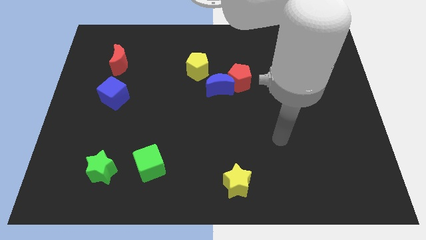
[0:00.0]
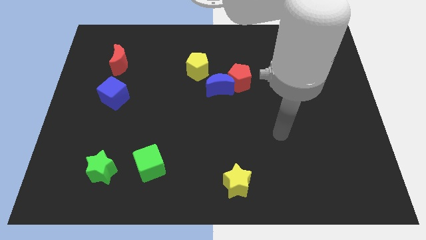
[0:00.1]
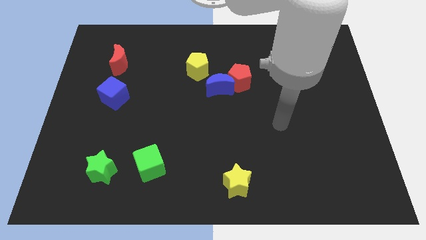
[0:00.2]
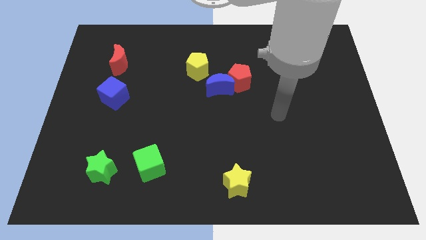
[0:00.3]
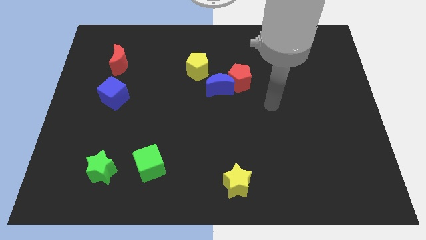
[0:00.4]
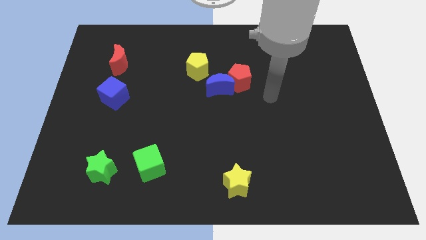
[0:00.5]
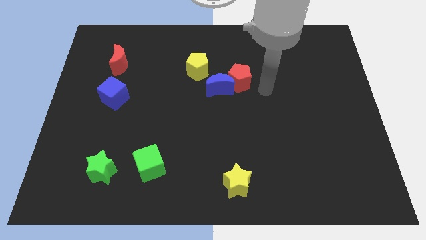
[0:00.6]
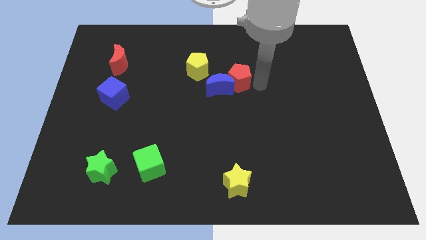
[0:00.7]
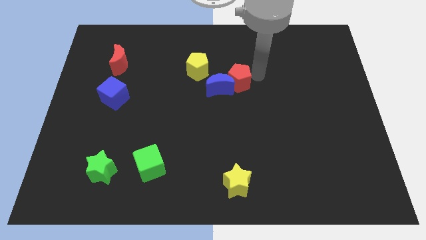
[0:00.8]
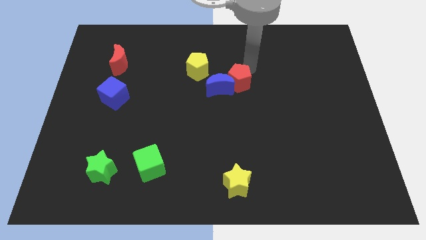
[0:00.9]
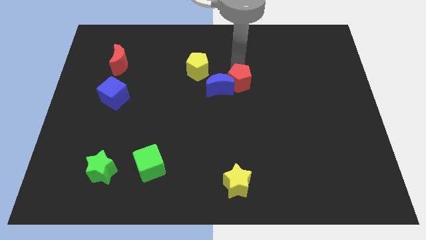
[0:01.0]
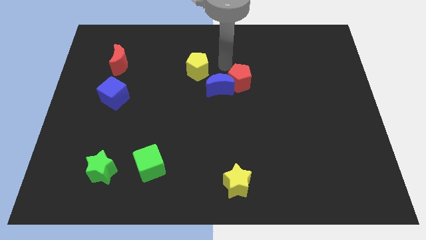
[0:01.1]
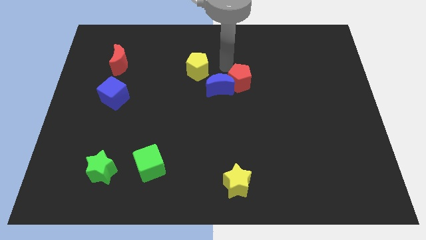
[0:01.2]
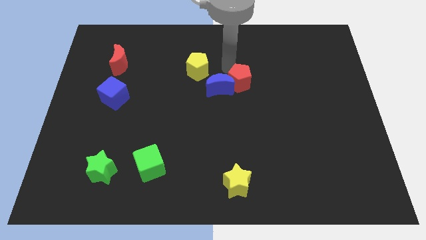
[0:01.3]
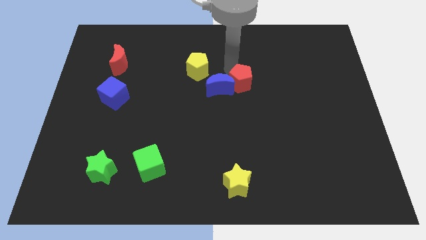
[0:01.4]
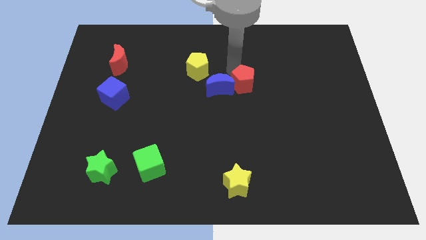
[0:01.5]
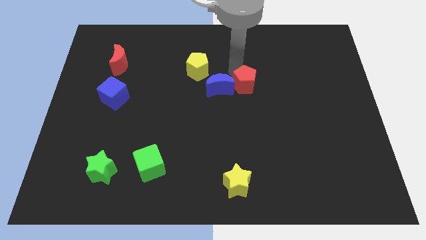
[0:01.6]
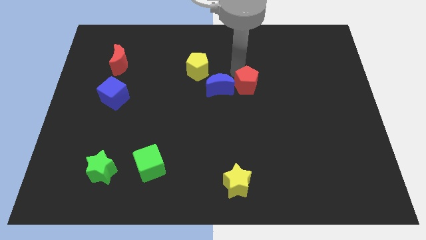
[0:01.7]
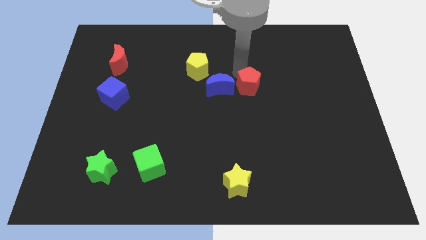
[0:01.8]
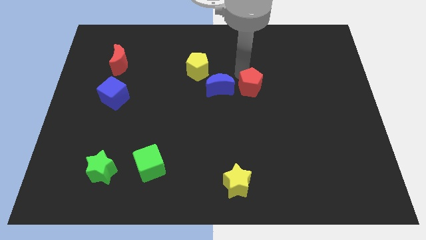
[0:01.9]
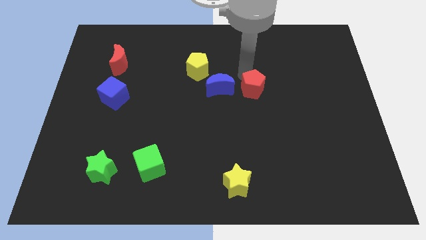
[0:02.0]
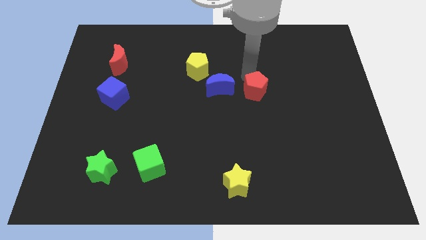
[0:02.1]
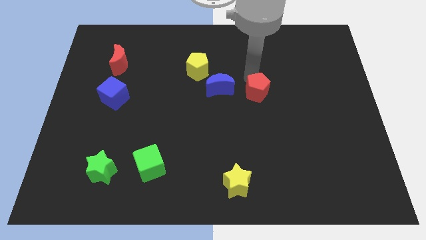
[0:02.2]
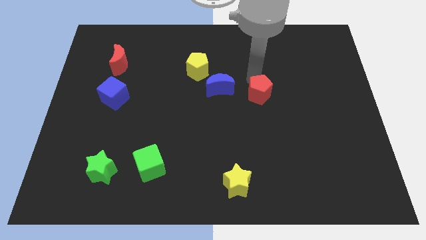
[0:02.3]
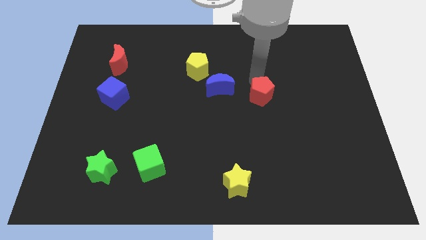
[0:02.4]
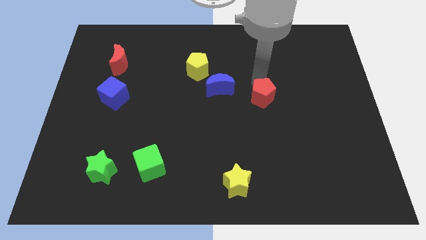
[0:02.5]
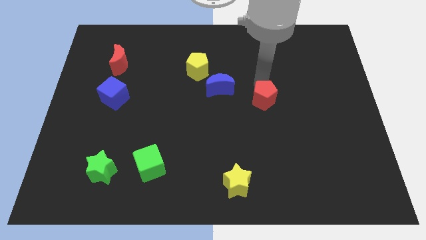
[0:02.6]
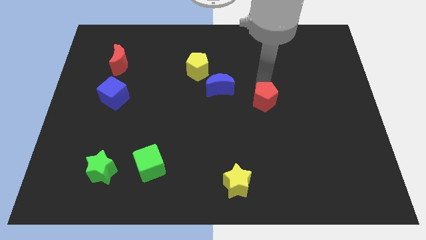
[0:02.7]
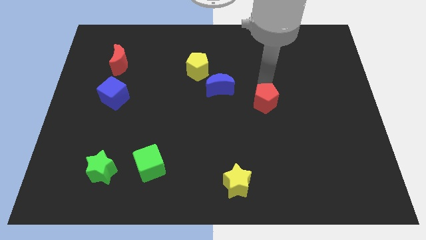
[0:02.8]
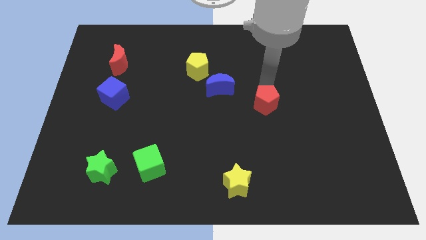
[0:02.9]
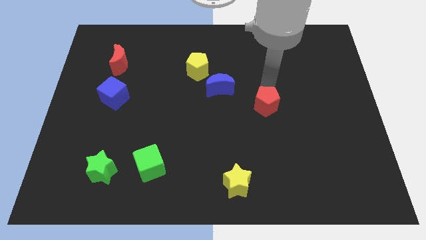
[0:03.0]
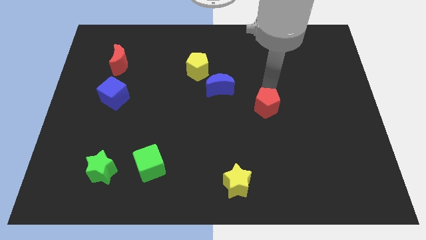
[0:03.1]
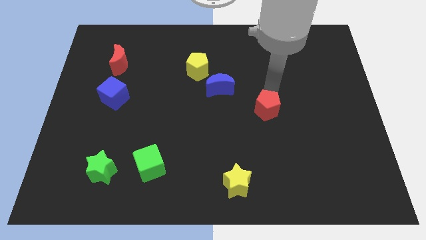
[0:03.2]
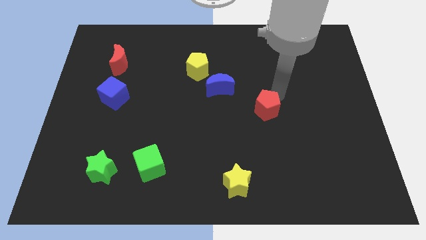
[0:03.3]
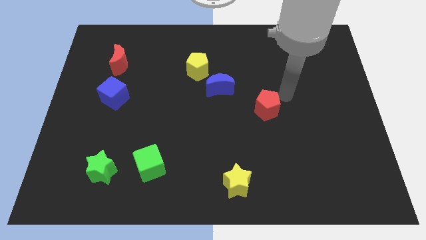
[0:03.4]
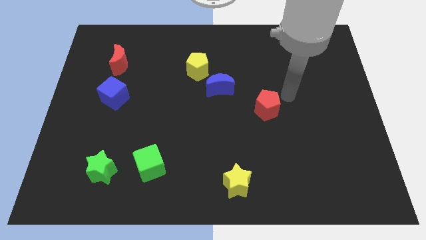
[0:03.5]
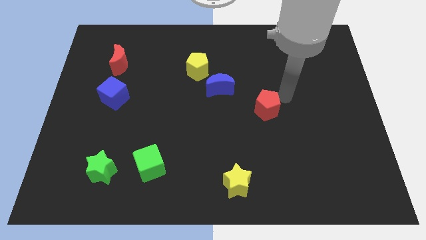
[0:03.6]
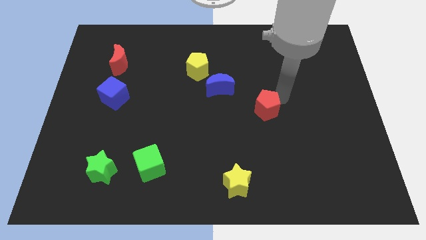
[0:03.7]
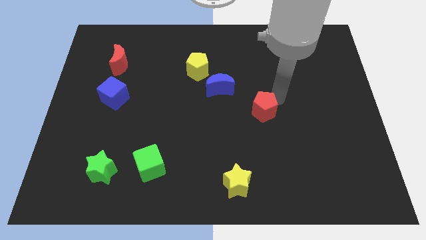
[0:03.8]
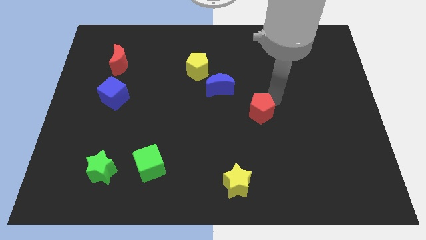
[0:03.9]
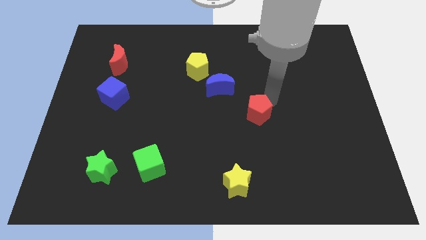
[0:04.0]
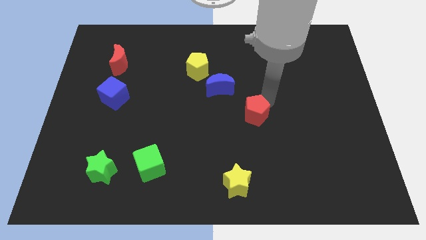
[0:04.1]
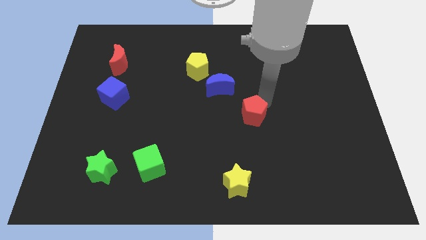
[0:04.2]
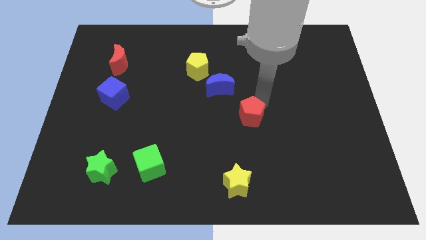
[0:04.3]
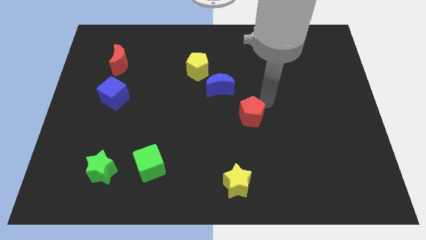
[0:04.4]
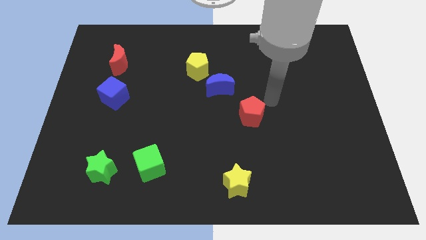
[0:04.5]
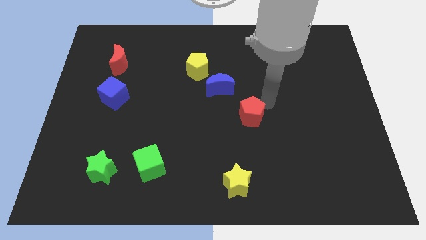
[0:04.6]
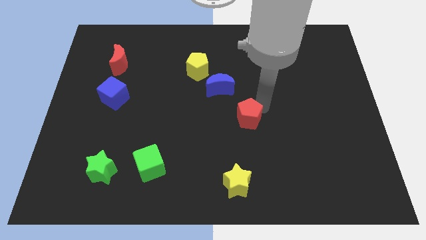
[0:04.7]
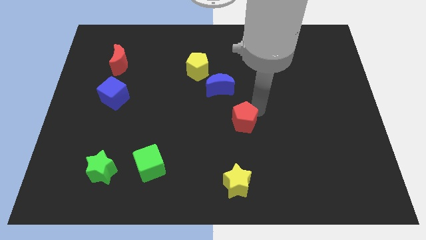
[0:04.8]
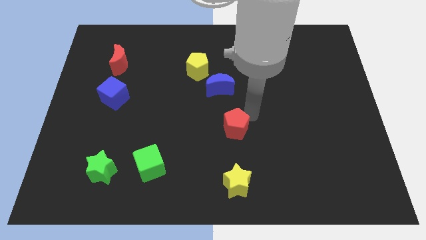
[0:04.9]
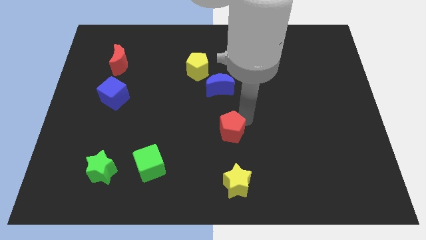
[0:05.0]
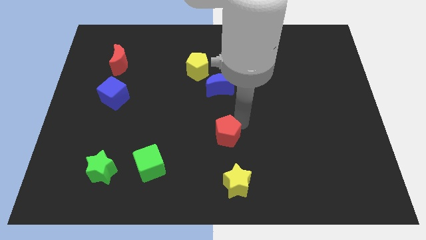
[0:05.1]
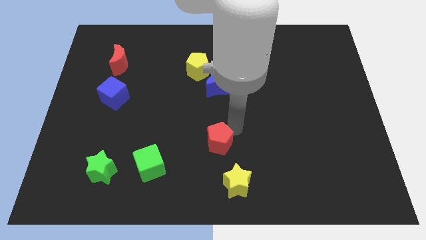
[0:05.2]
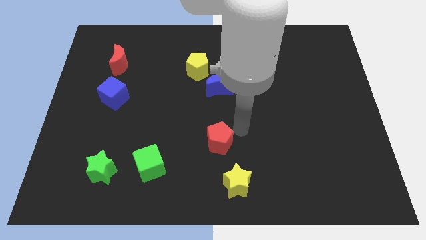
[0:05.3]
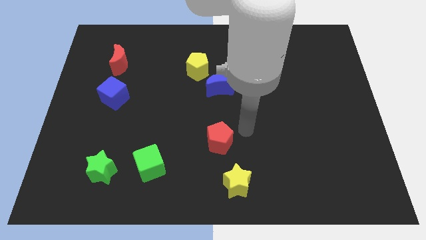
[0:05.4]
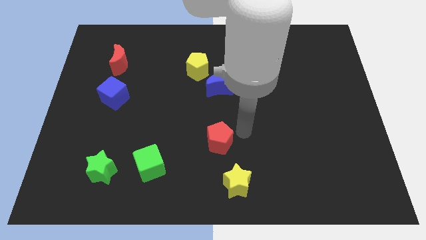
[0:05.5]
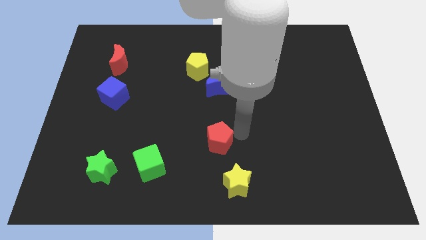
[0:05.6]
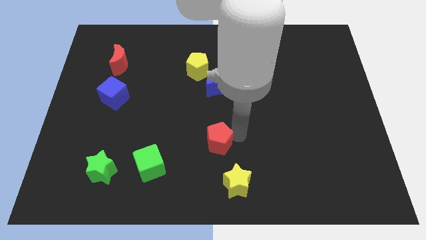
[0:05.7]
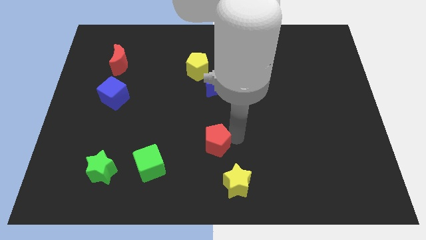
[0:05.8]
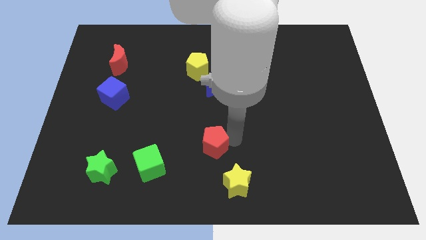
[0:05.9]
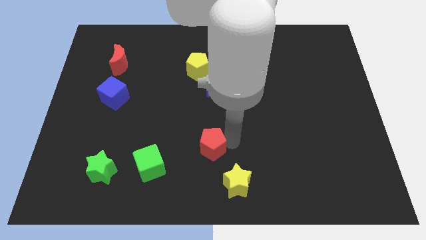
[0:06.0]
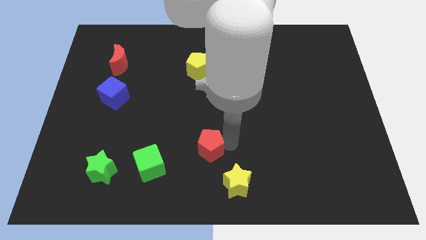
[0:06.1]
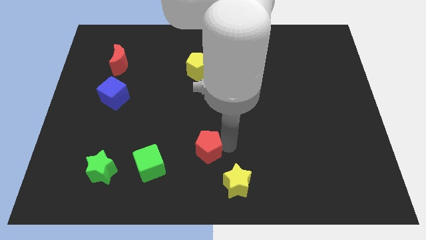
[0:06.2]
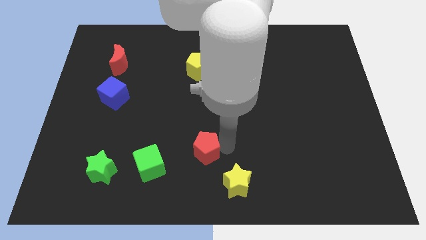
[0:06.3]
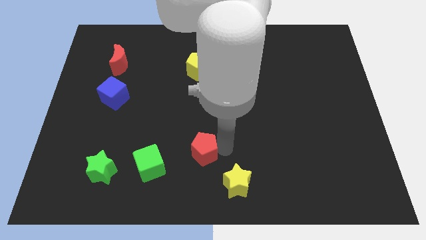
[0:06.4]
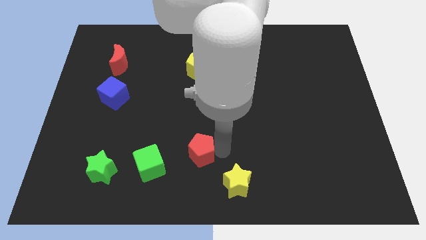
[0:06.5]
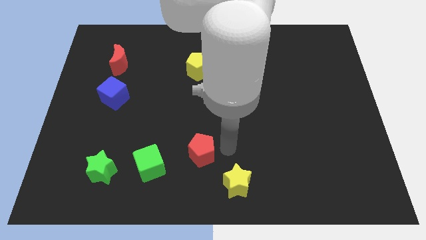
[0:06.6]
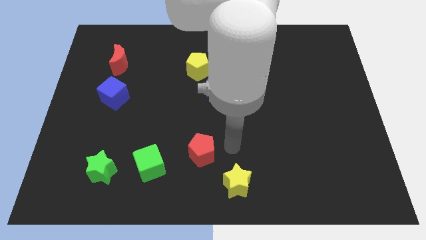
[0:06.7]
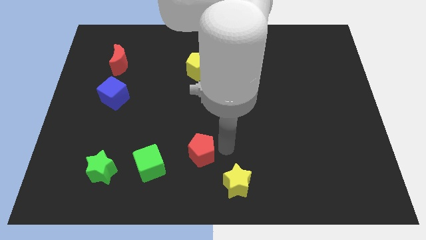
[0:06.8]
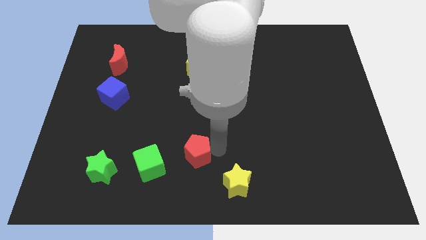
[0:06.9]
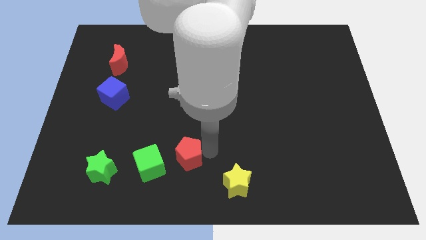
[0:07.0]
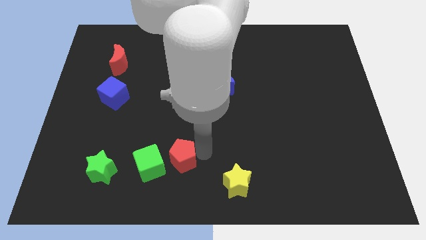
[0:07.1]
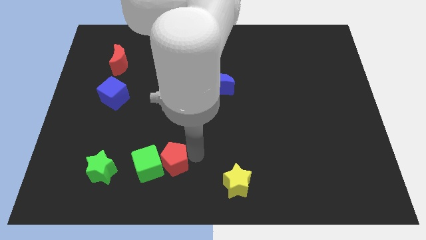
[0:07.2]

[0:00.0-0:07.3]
push the red pentagon next to the green cube
